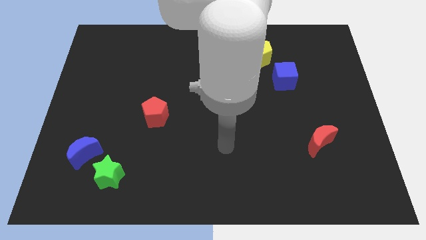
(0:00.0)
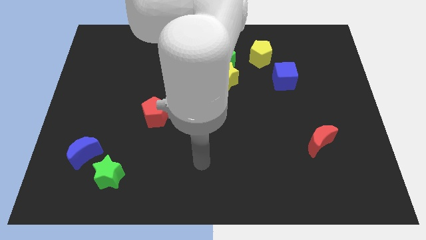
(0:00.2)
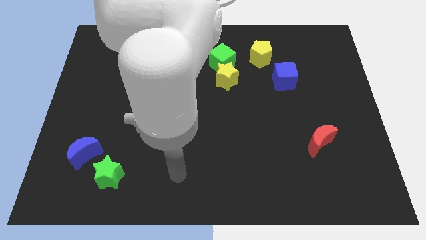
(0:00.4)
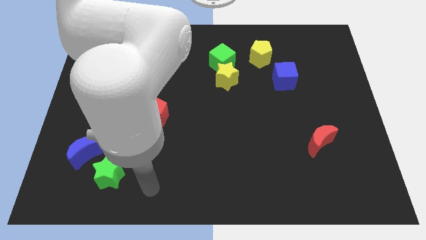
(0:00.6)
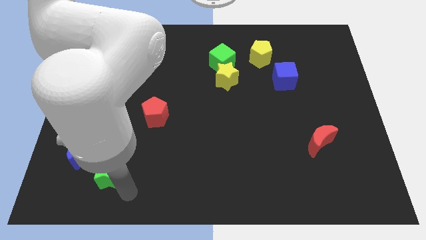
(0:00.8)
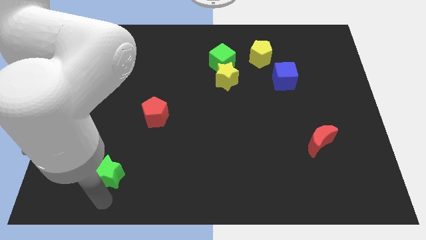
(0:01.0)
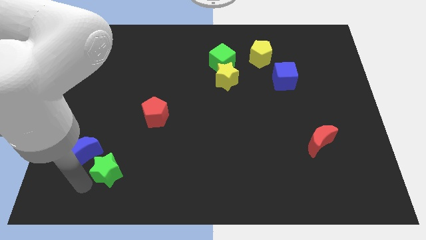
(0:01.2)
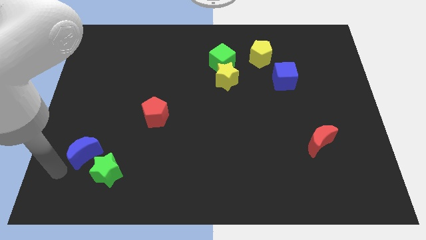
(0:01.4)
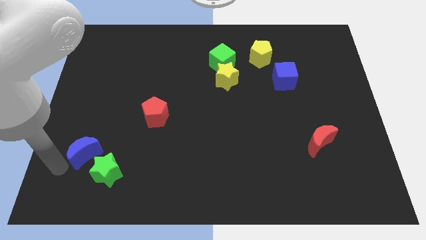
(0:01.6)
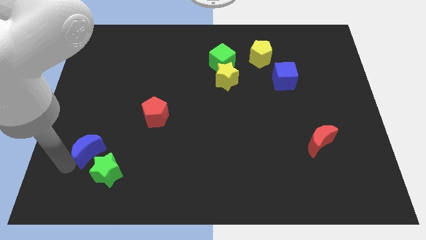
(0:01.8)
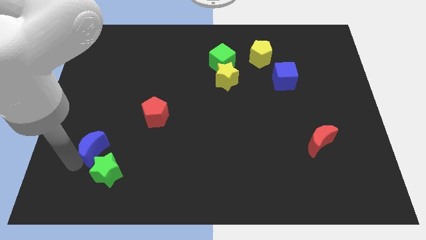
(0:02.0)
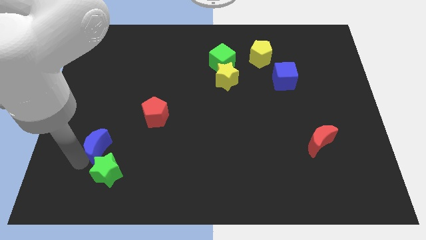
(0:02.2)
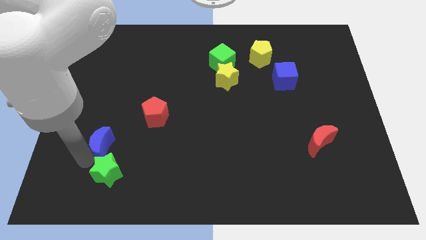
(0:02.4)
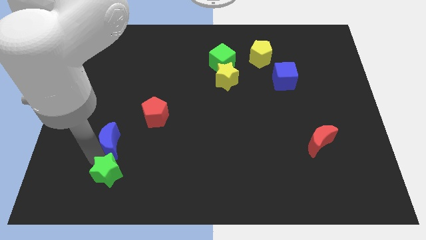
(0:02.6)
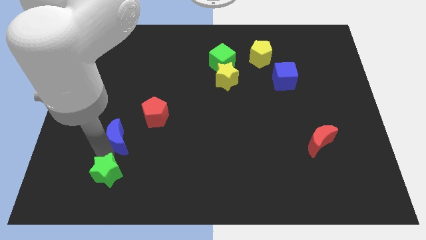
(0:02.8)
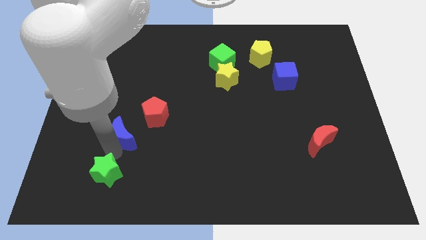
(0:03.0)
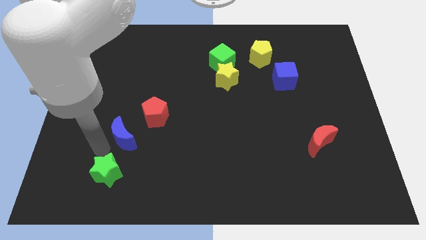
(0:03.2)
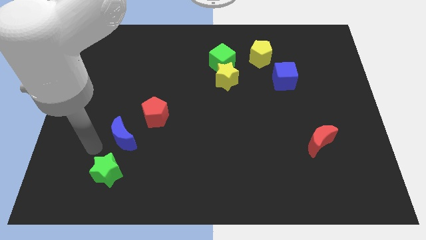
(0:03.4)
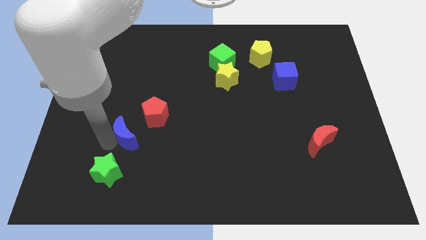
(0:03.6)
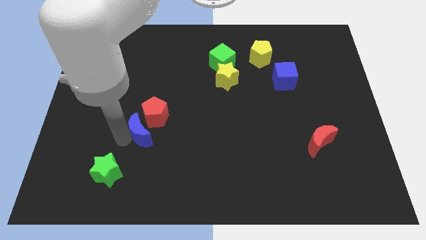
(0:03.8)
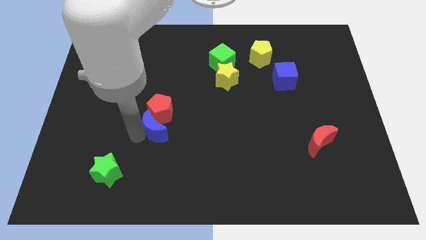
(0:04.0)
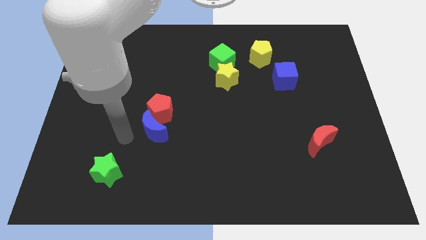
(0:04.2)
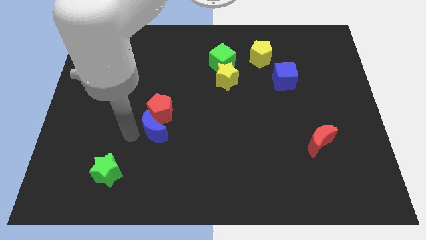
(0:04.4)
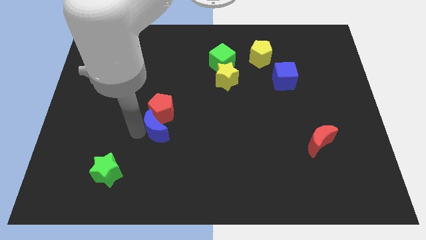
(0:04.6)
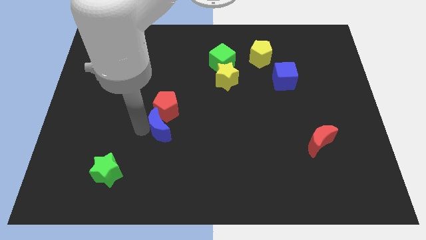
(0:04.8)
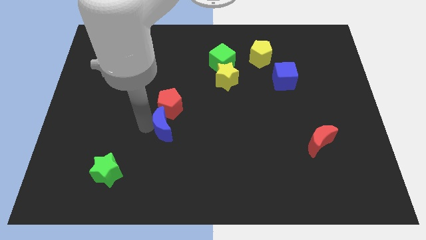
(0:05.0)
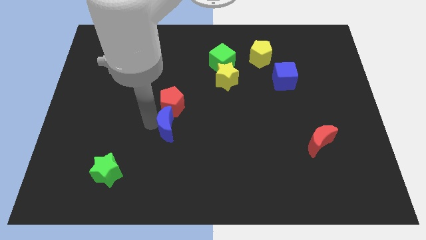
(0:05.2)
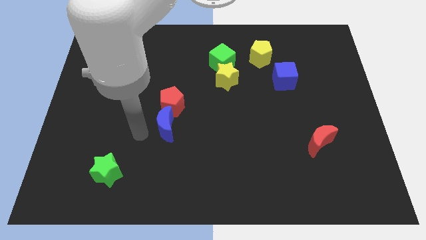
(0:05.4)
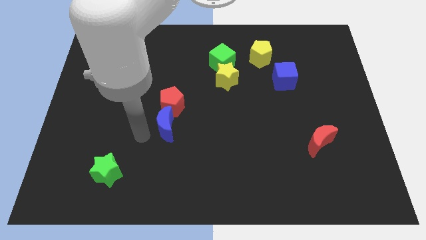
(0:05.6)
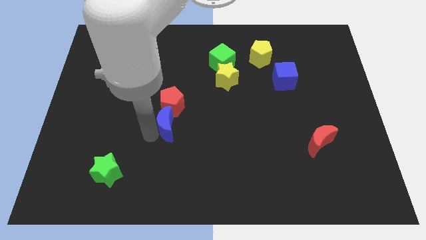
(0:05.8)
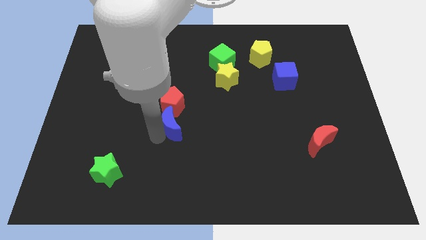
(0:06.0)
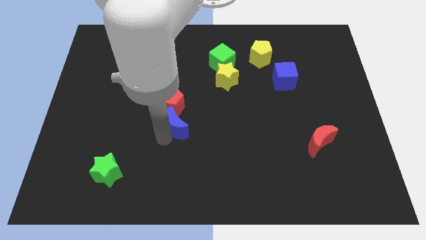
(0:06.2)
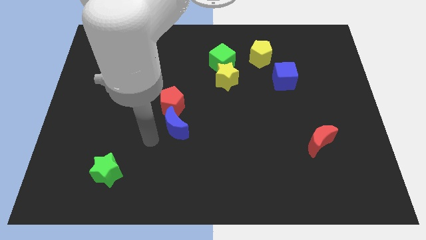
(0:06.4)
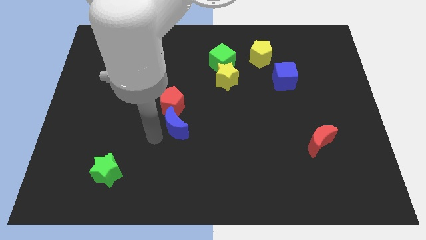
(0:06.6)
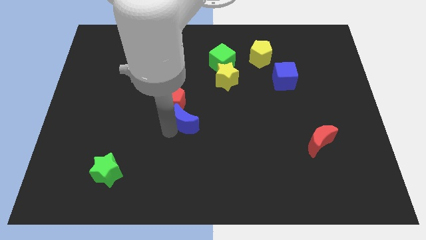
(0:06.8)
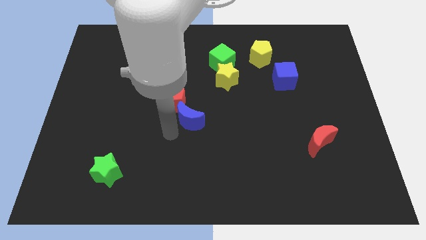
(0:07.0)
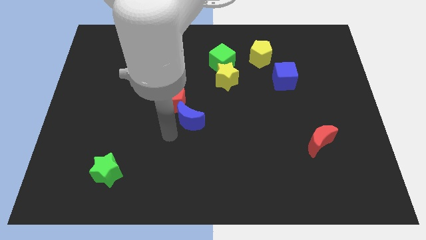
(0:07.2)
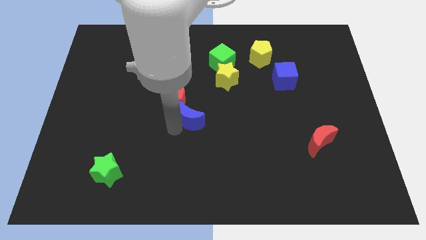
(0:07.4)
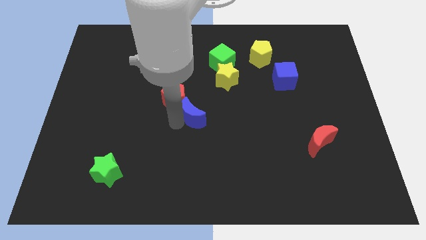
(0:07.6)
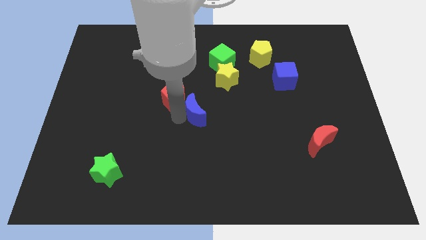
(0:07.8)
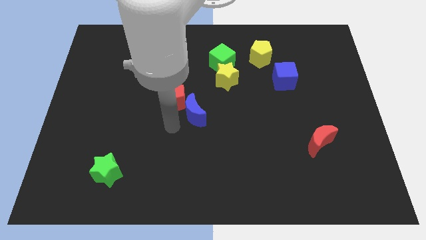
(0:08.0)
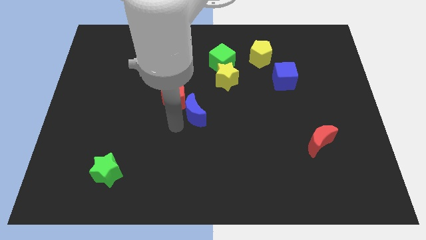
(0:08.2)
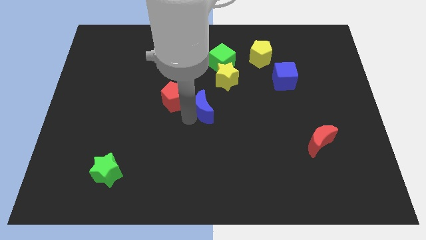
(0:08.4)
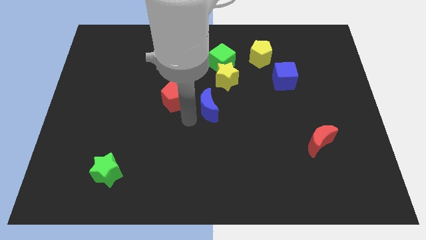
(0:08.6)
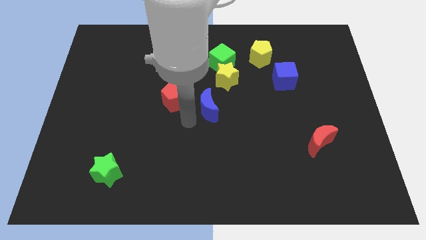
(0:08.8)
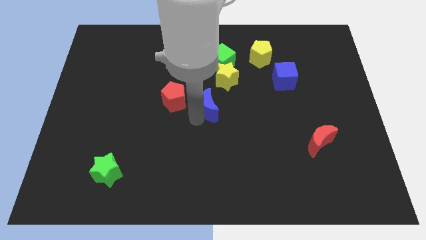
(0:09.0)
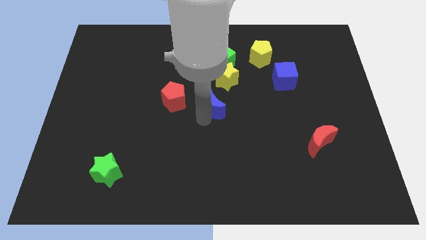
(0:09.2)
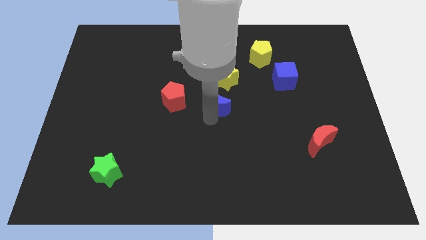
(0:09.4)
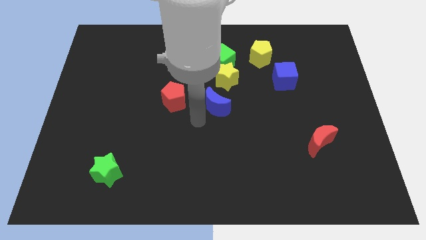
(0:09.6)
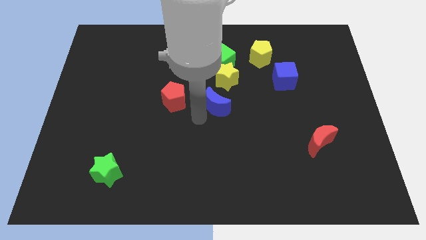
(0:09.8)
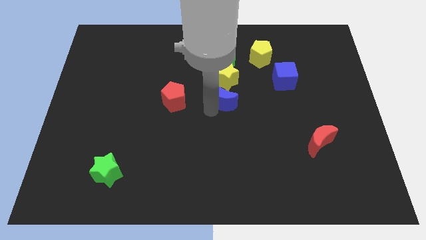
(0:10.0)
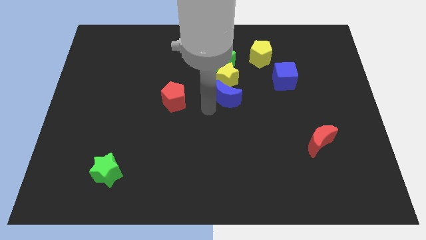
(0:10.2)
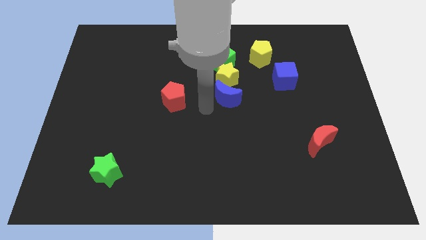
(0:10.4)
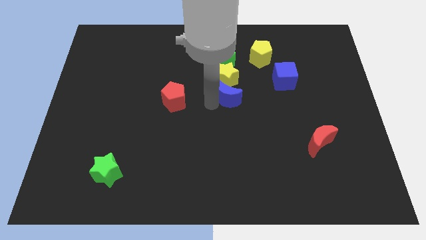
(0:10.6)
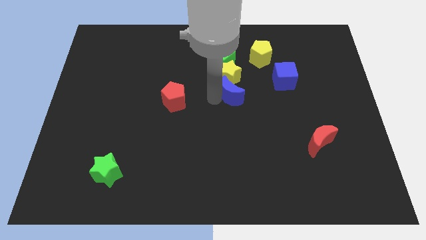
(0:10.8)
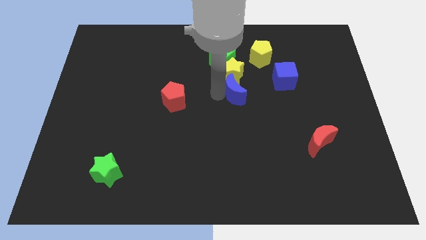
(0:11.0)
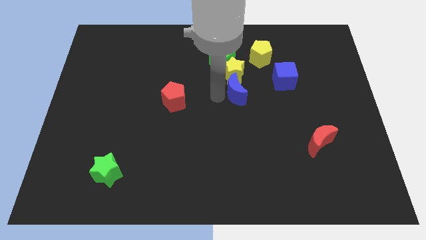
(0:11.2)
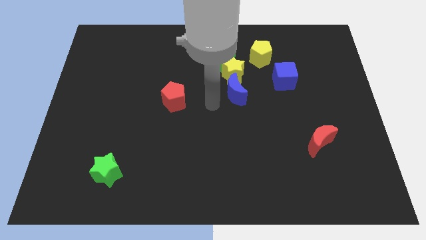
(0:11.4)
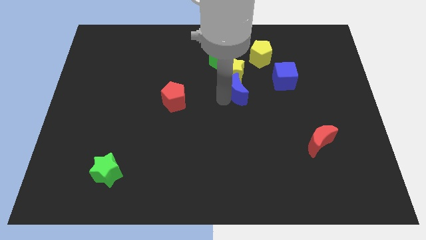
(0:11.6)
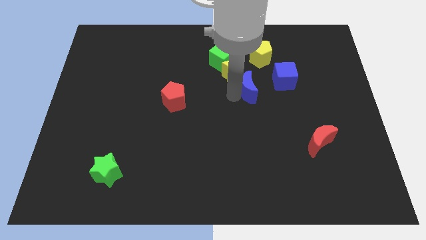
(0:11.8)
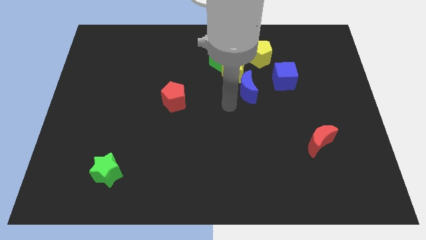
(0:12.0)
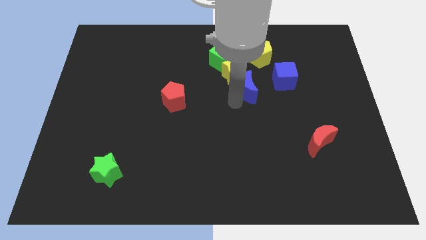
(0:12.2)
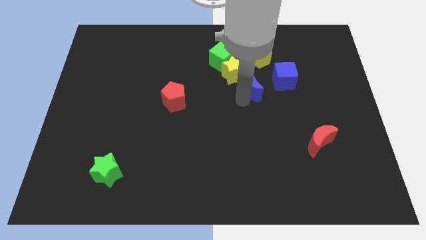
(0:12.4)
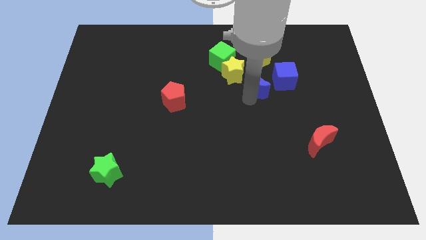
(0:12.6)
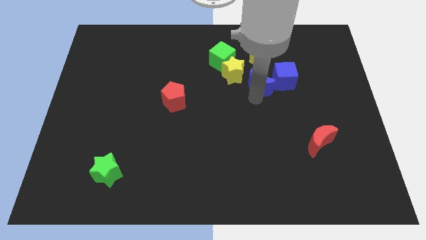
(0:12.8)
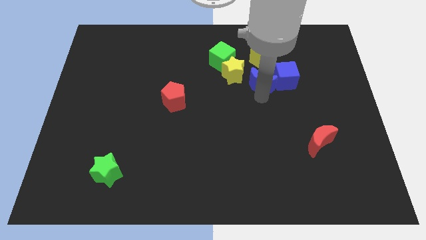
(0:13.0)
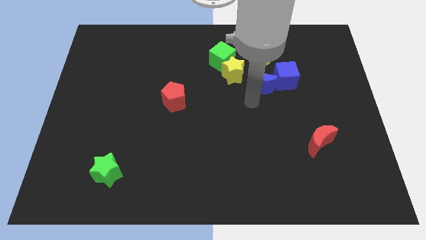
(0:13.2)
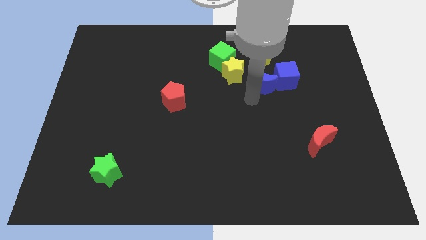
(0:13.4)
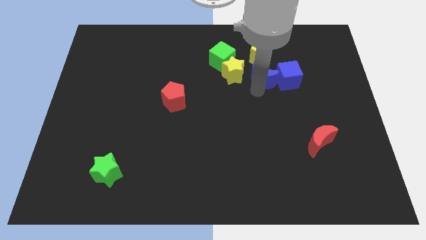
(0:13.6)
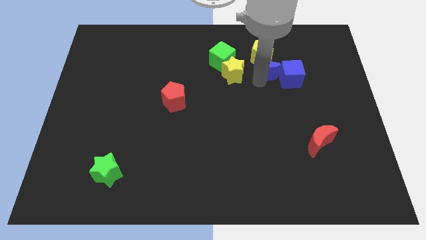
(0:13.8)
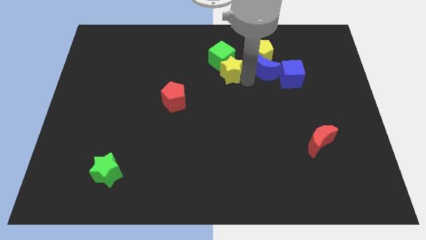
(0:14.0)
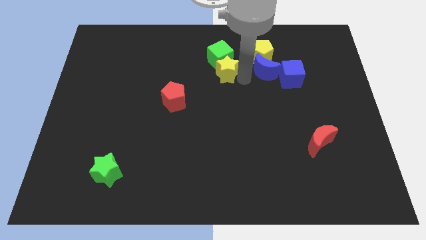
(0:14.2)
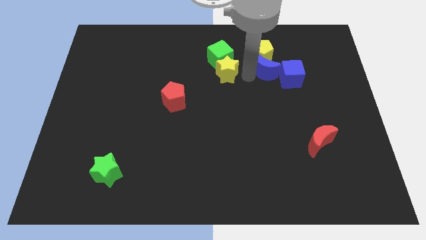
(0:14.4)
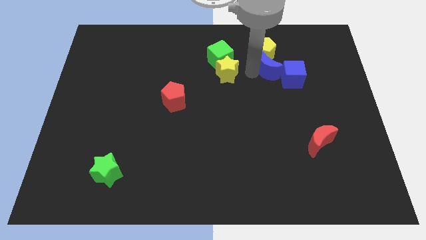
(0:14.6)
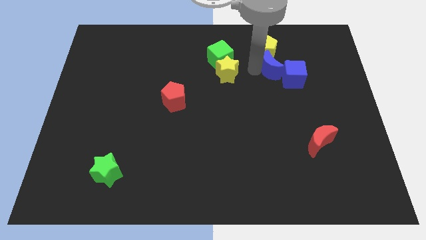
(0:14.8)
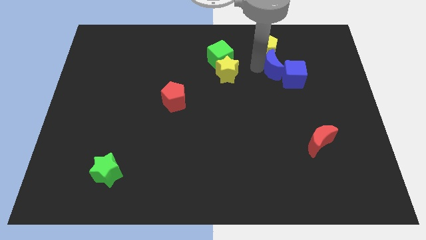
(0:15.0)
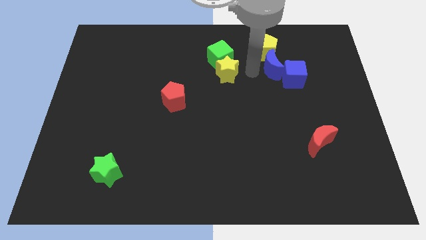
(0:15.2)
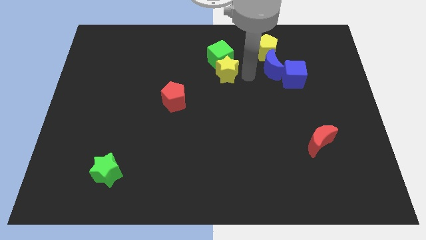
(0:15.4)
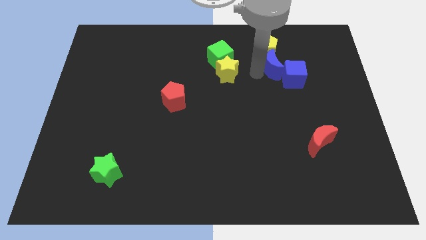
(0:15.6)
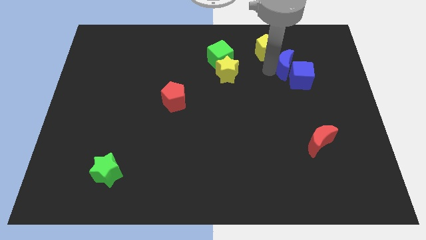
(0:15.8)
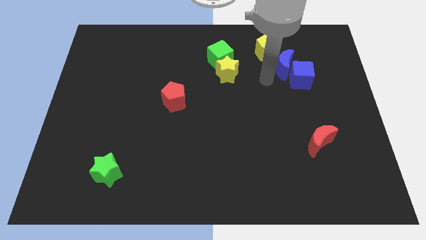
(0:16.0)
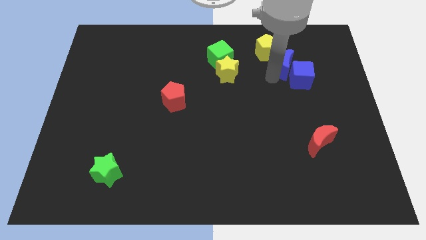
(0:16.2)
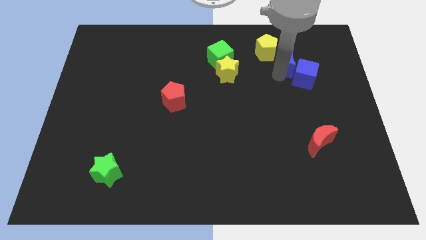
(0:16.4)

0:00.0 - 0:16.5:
push the blue moon to the right of the yellow pentagon
